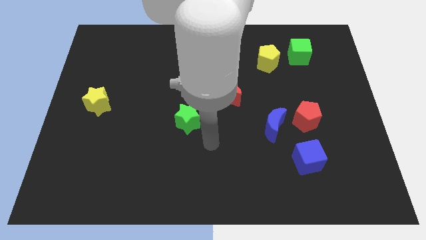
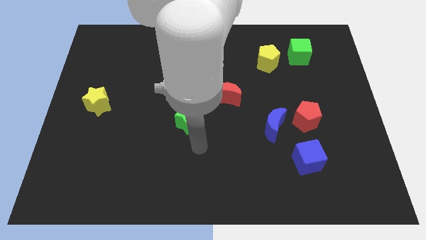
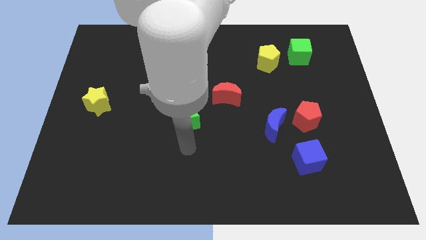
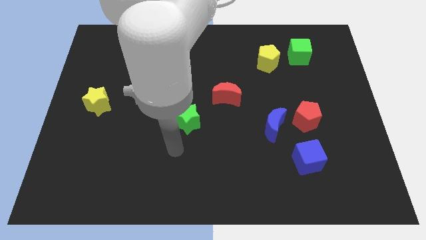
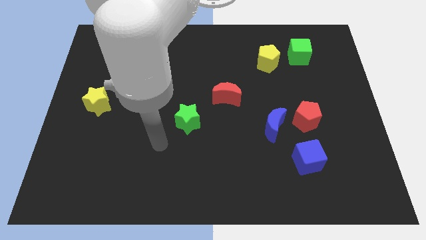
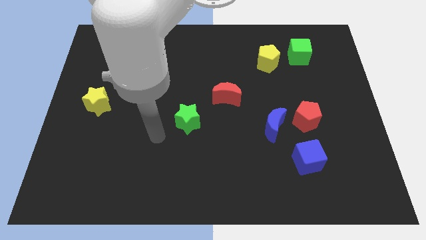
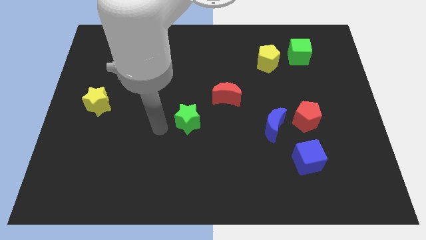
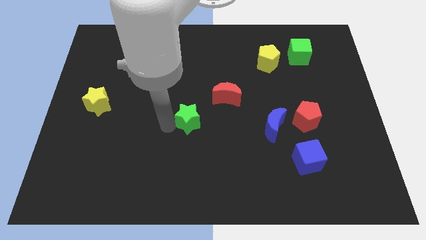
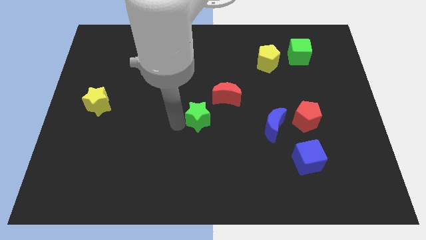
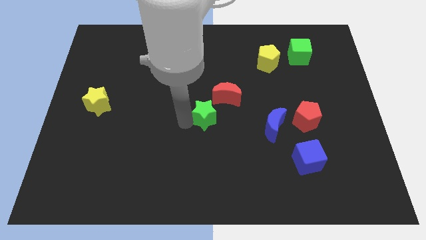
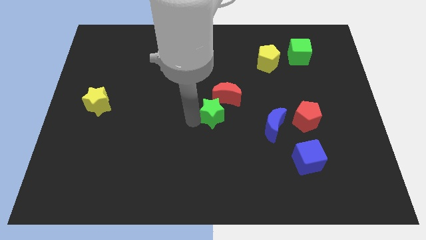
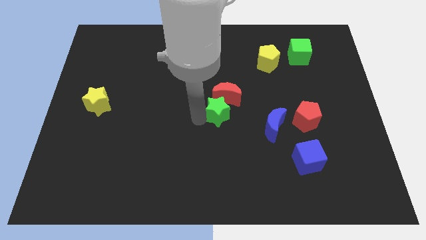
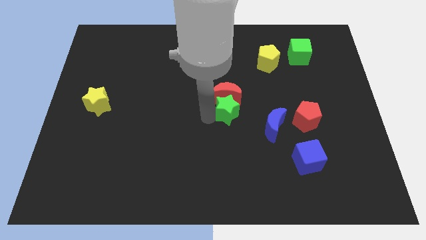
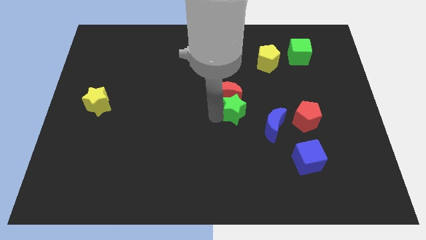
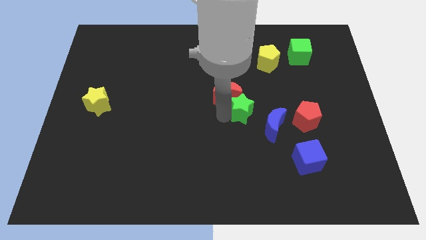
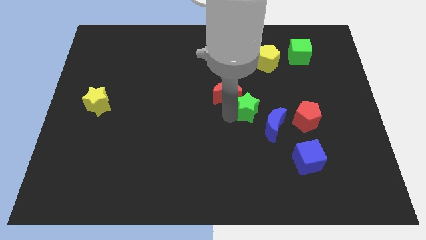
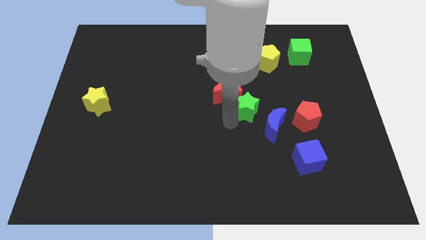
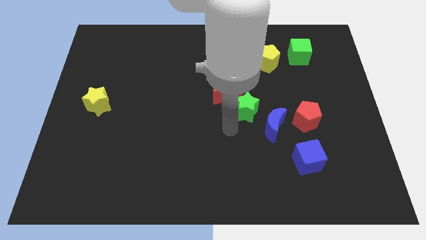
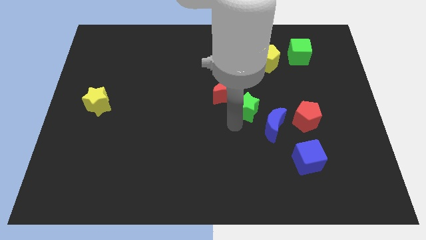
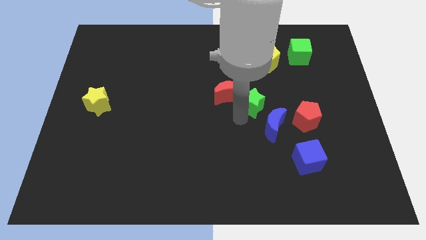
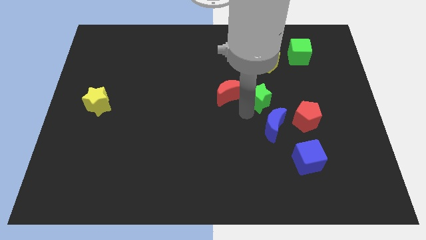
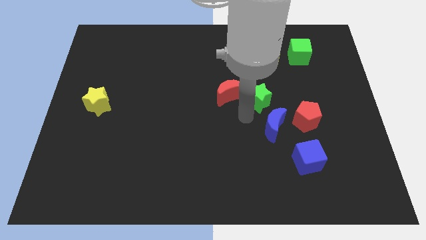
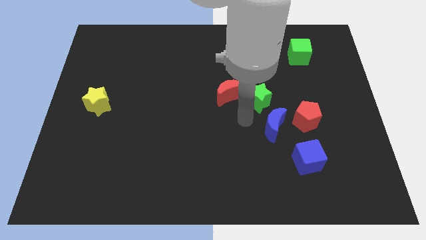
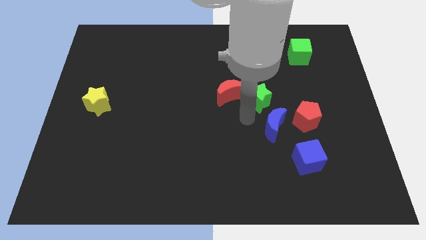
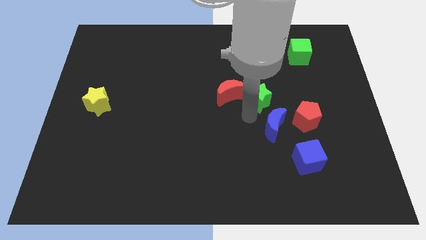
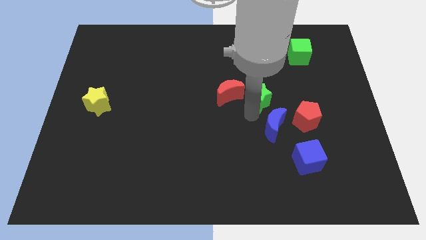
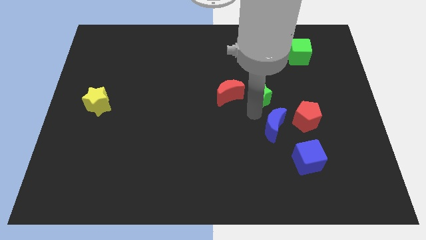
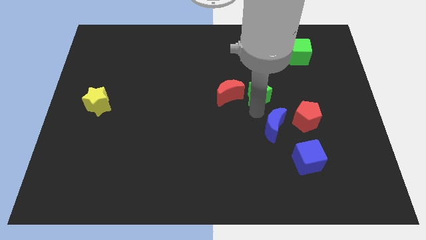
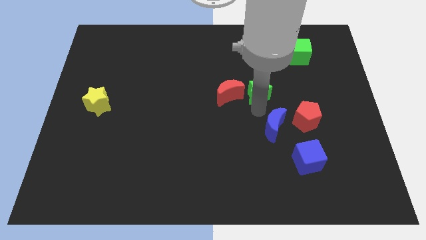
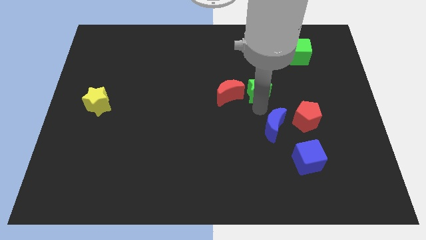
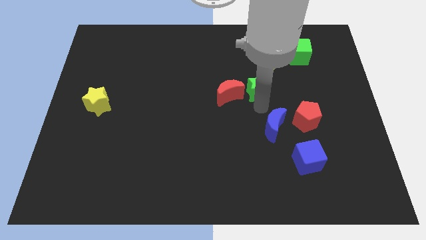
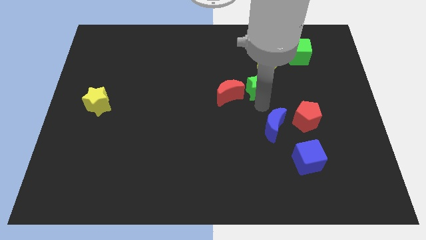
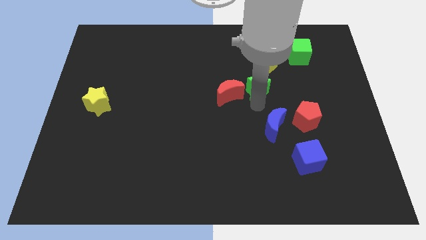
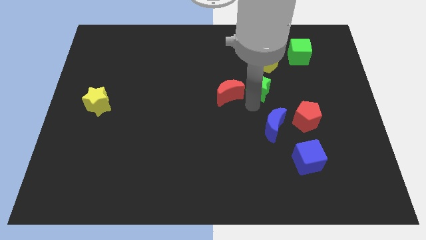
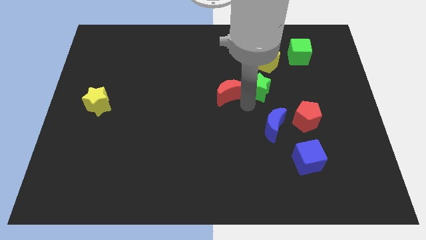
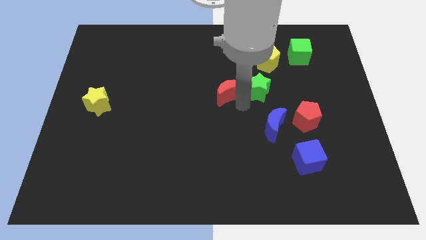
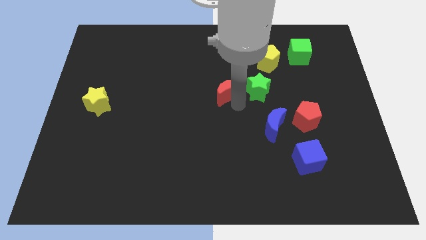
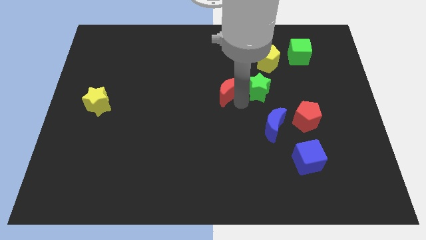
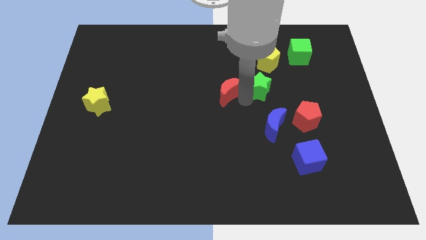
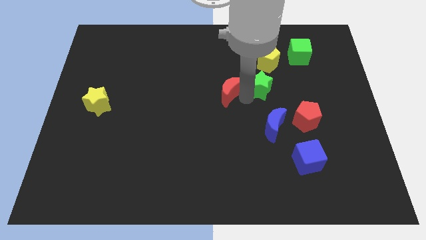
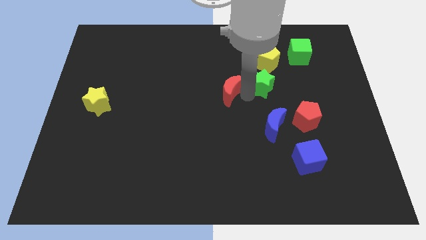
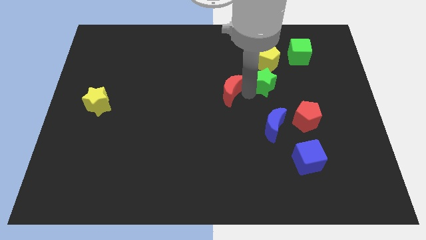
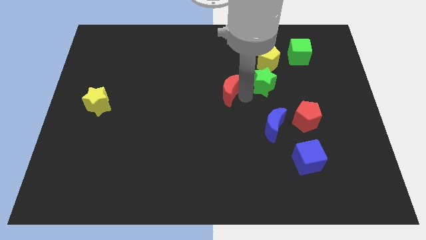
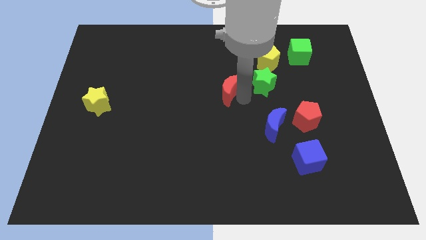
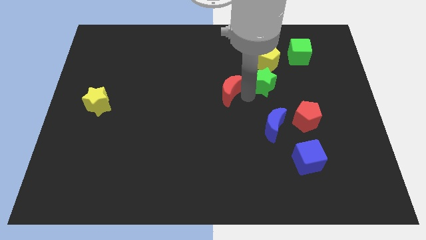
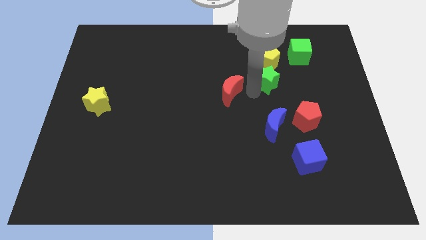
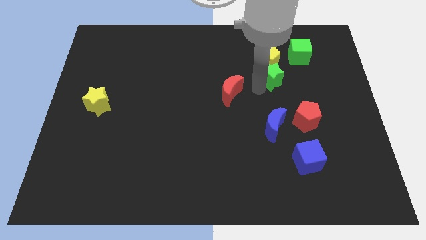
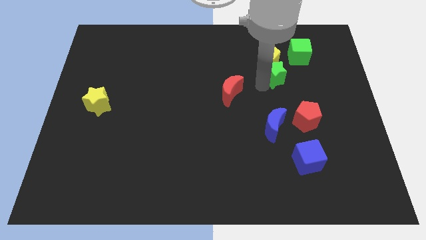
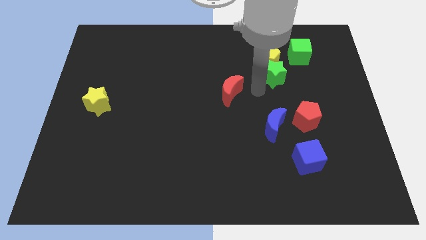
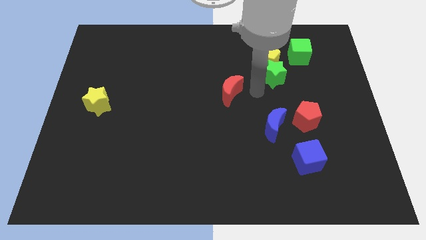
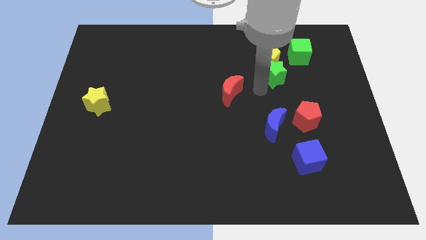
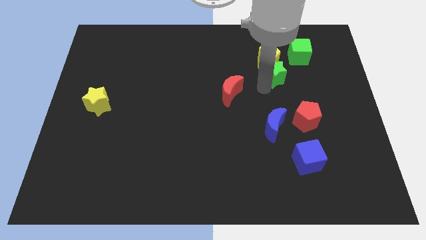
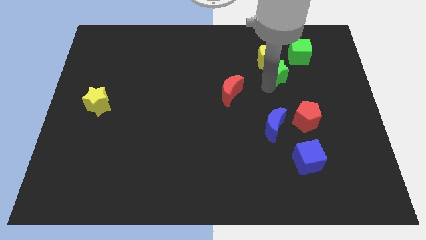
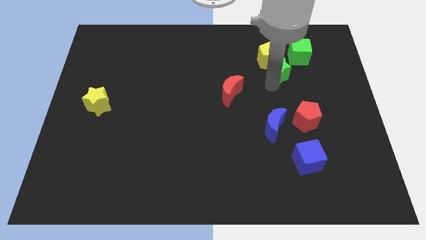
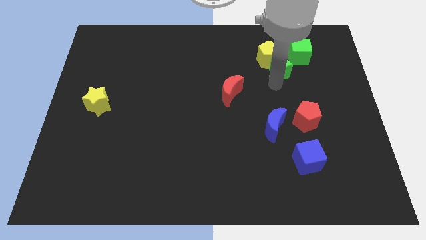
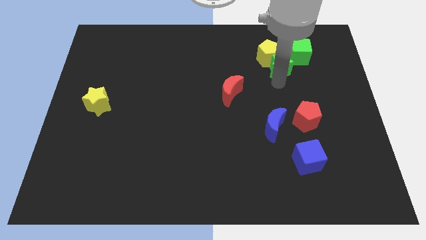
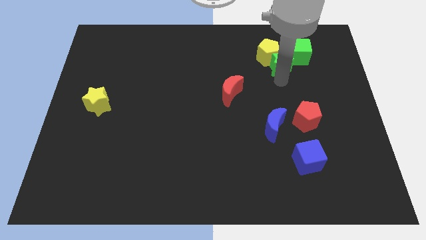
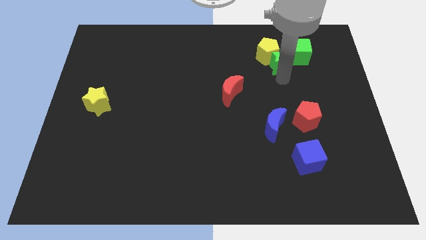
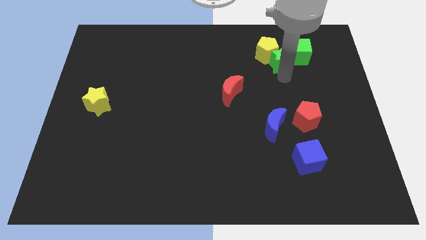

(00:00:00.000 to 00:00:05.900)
push the green star to the green cube

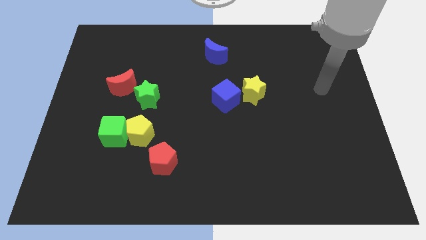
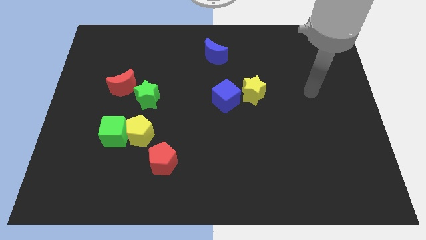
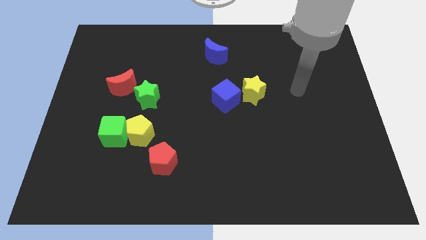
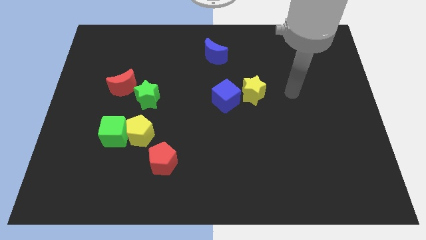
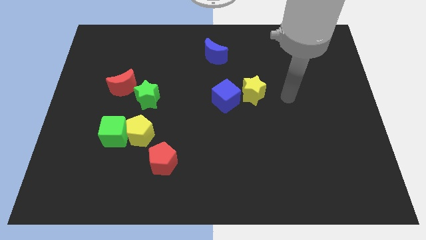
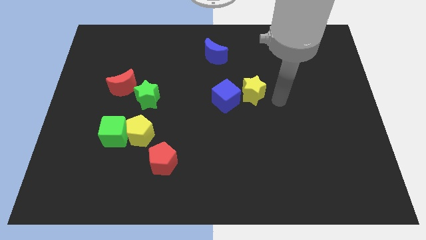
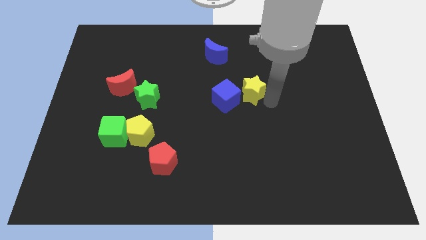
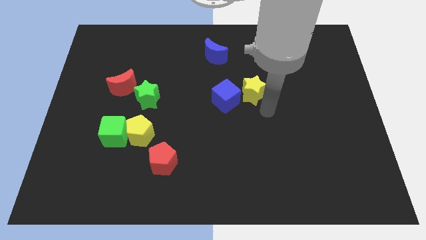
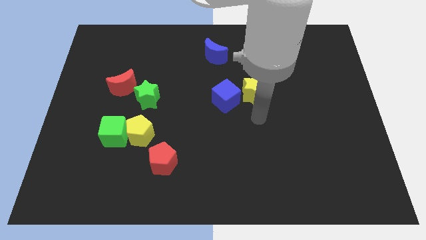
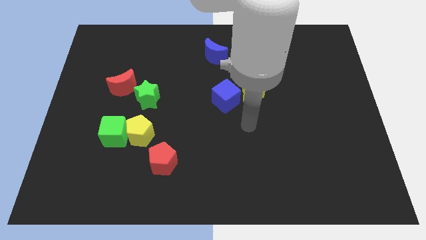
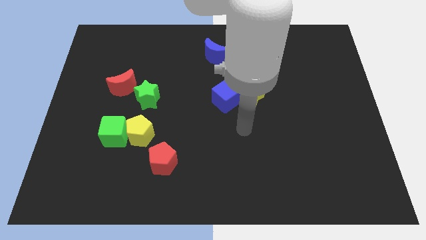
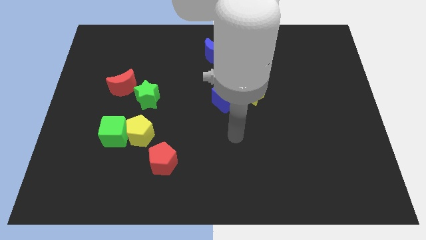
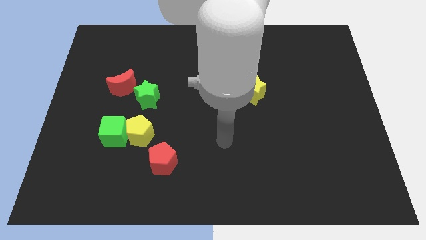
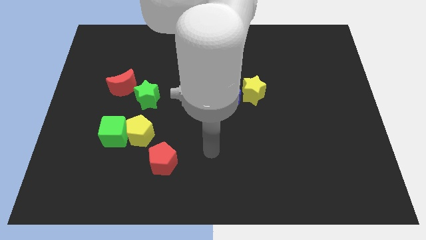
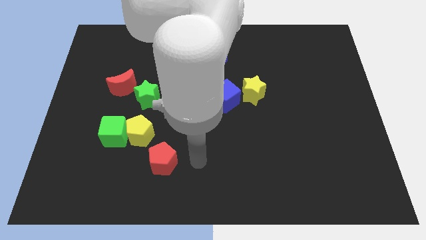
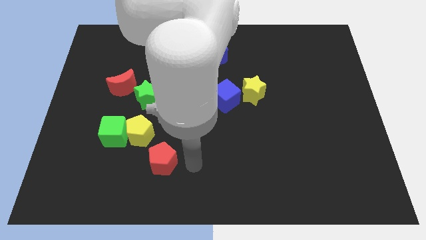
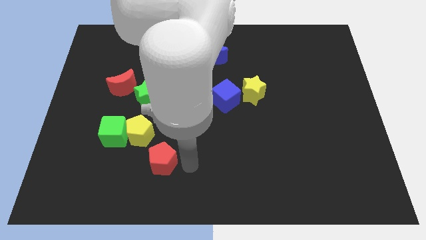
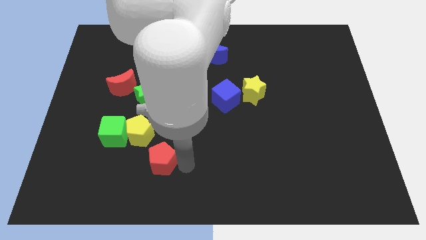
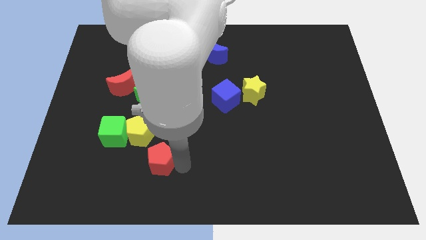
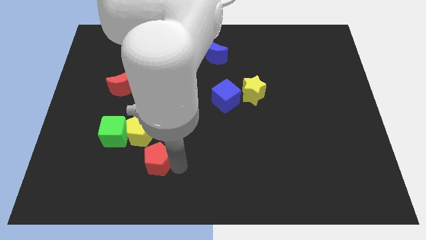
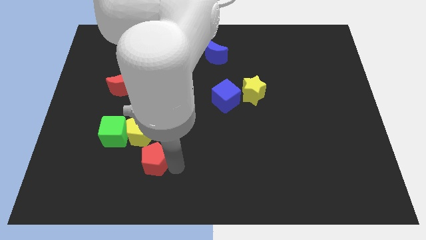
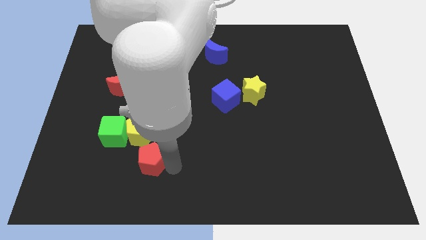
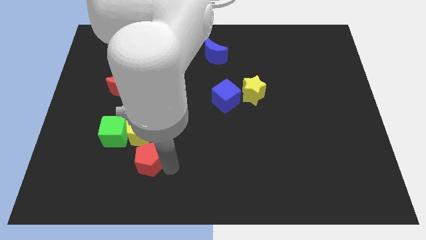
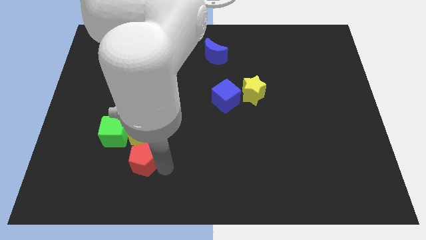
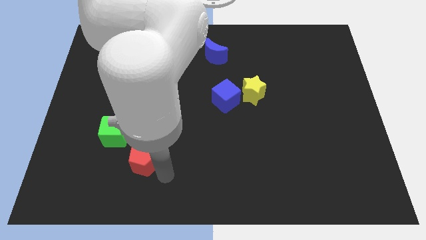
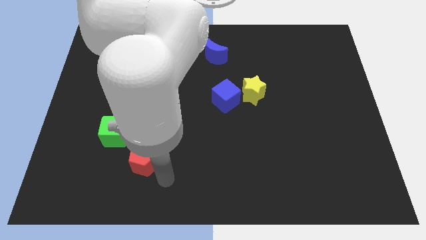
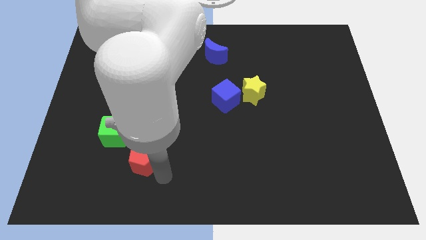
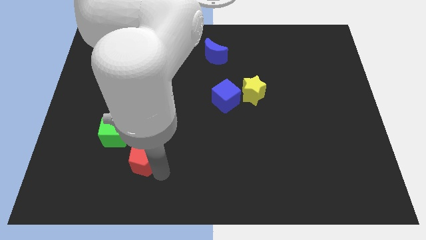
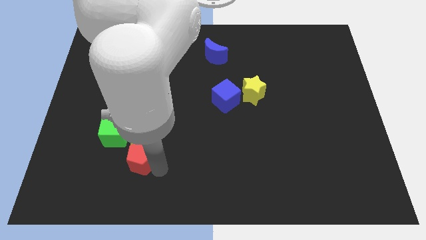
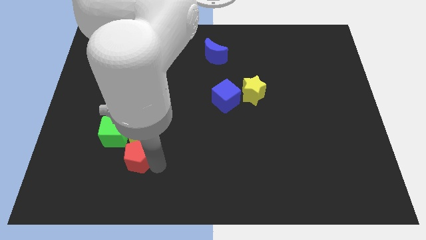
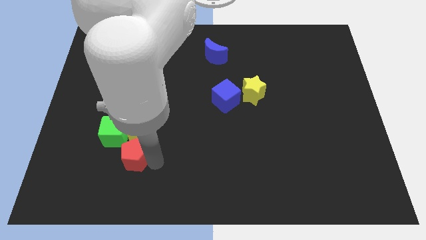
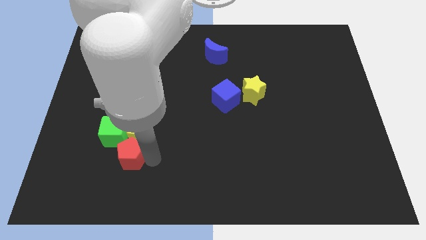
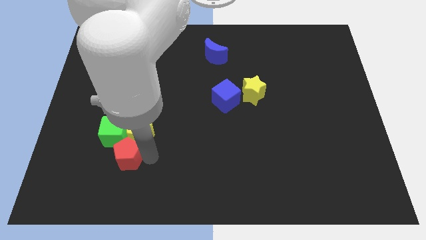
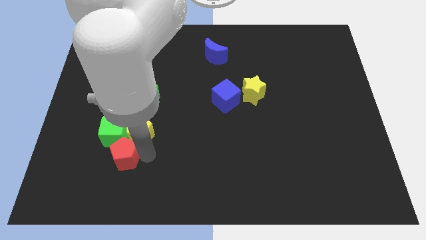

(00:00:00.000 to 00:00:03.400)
slide the red pentagon towards the green cube
